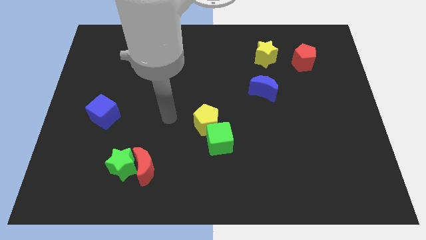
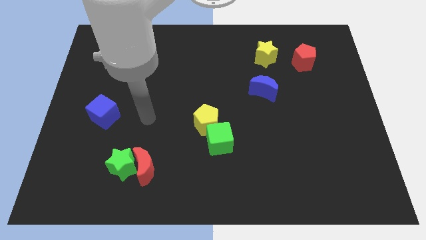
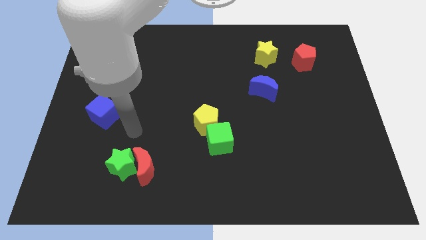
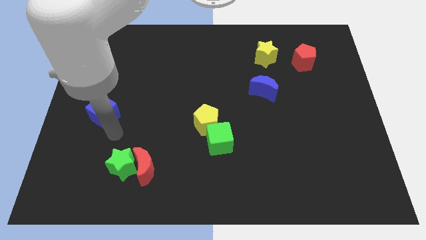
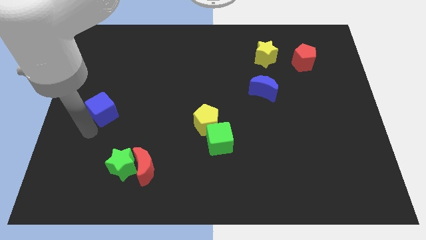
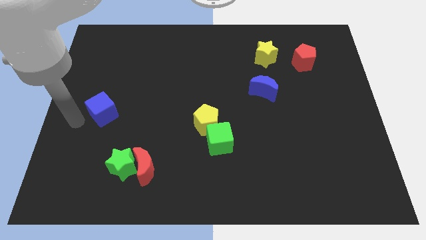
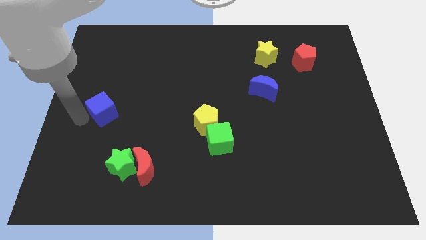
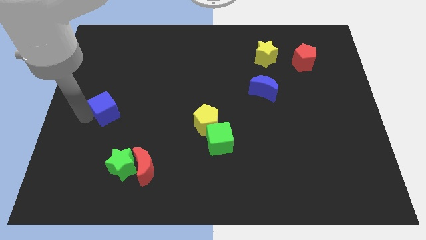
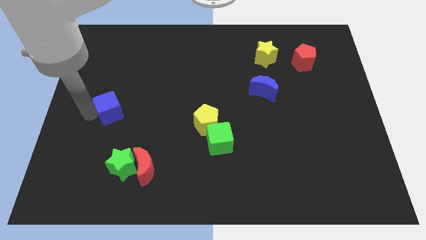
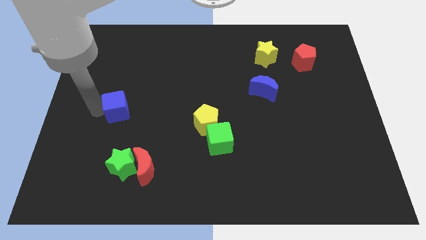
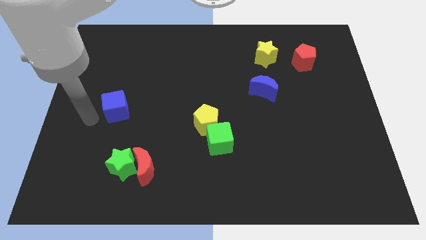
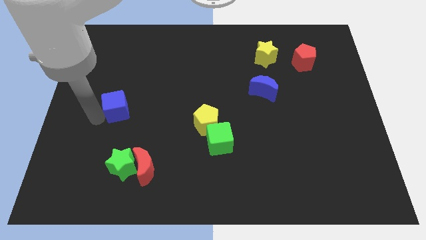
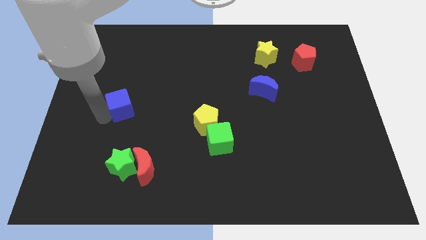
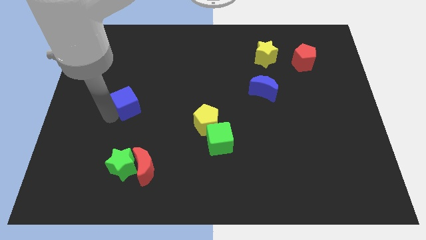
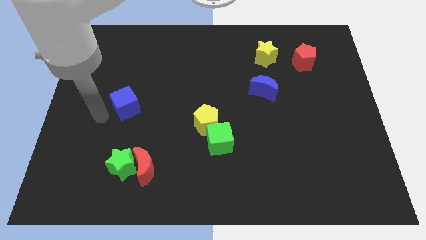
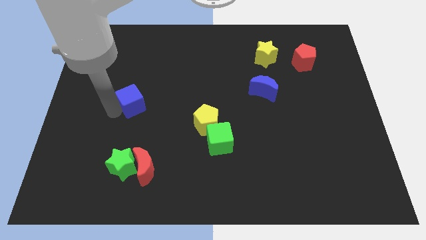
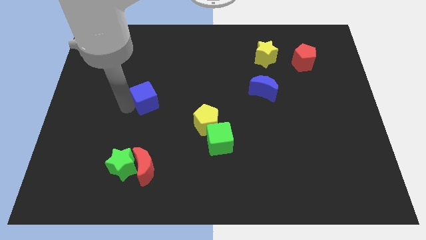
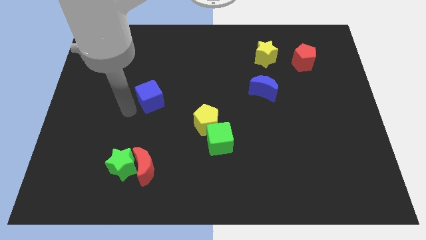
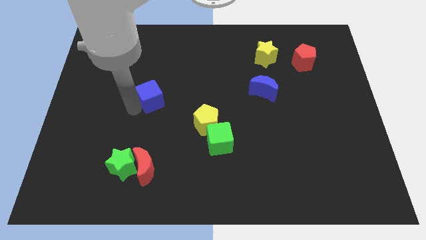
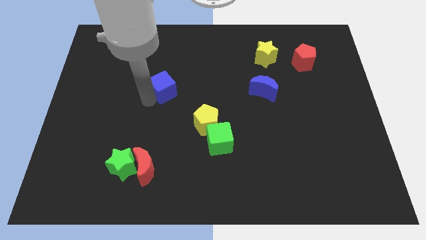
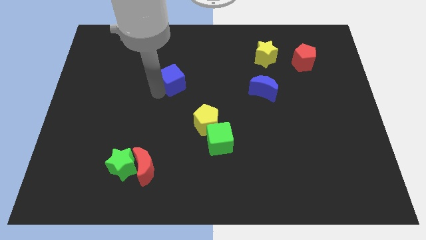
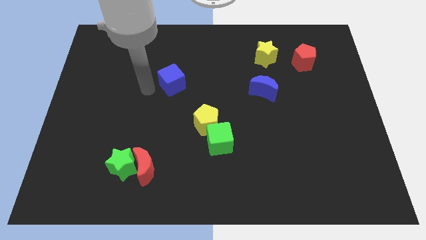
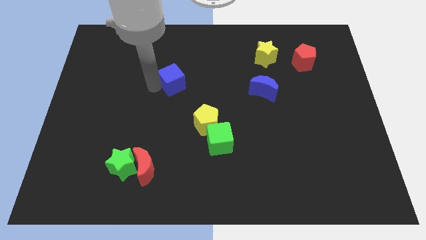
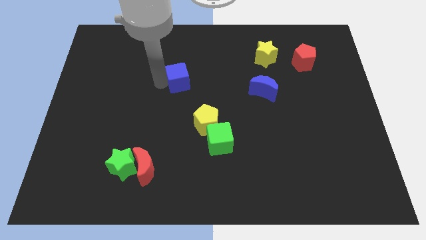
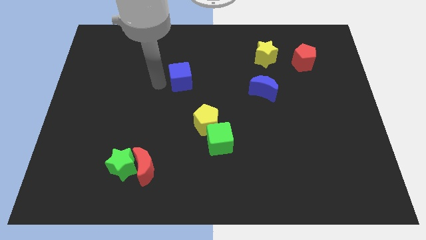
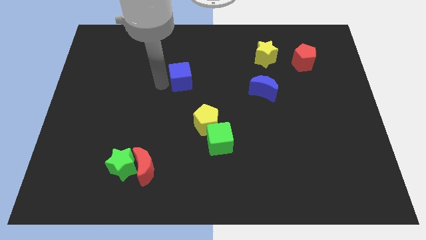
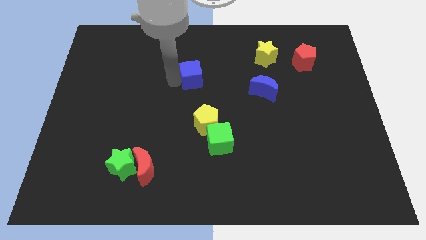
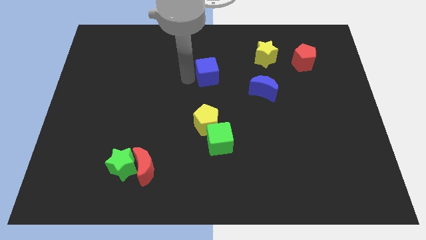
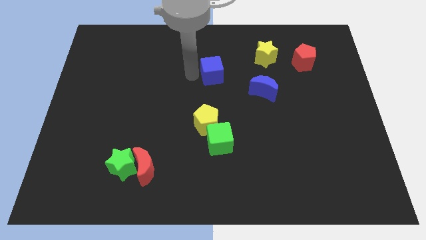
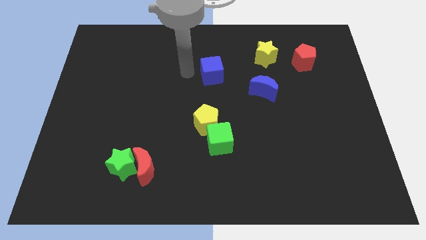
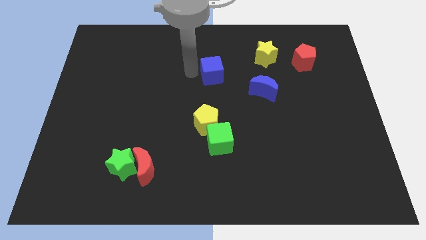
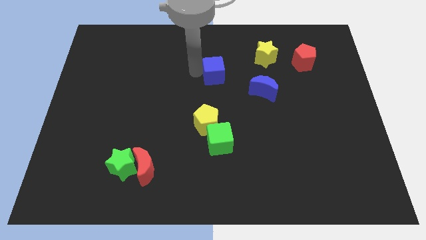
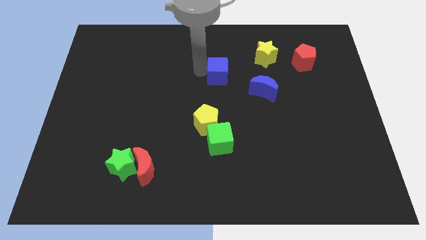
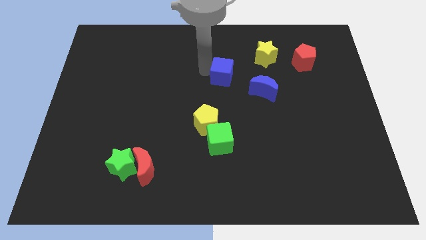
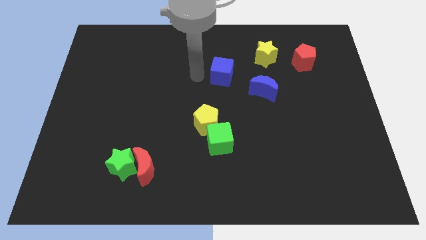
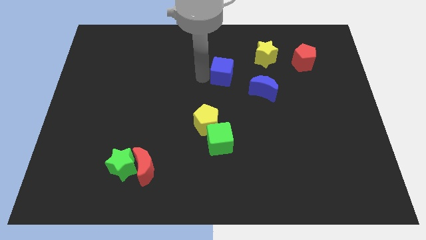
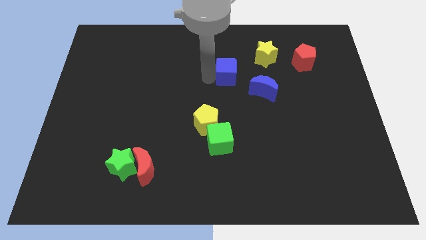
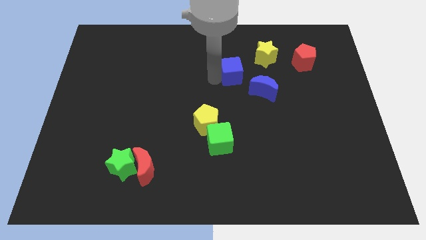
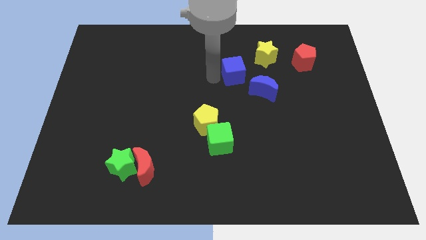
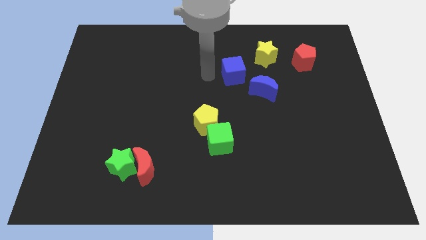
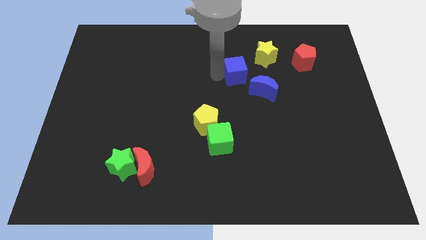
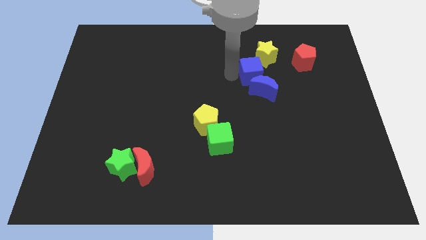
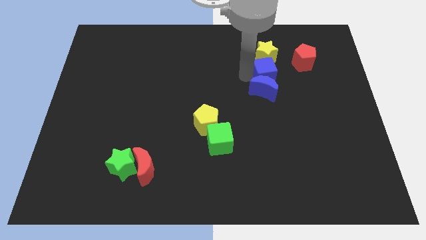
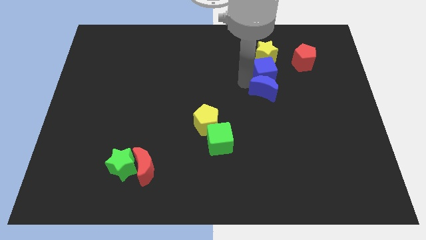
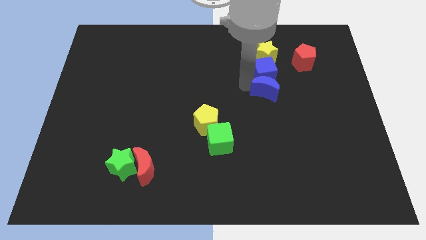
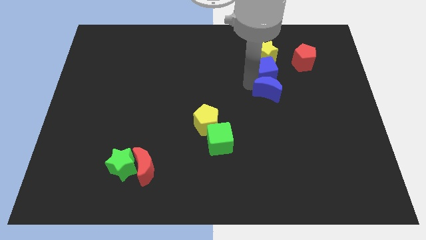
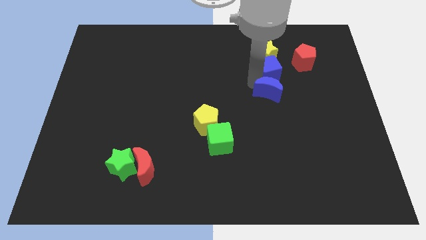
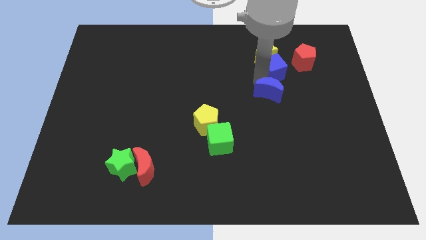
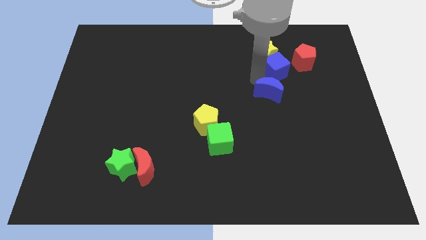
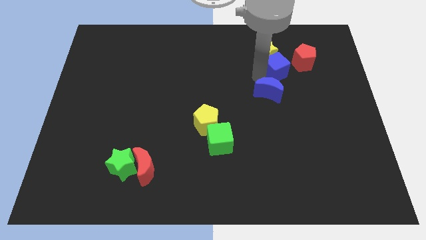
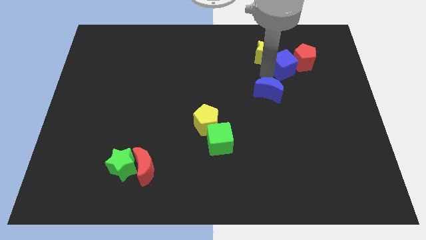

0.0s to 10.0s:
push the blue cube to the red pentagon

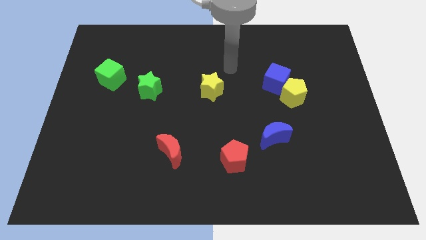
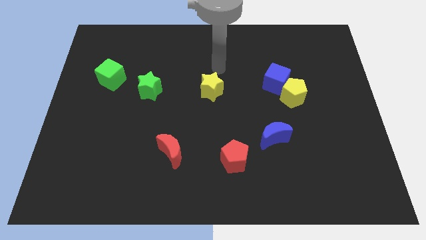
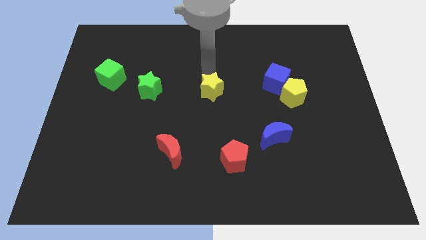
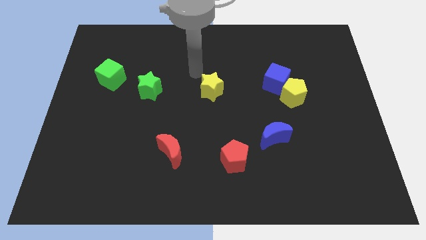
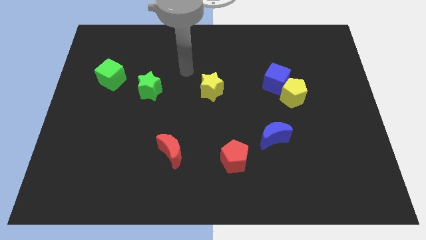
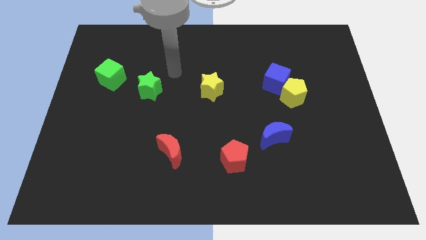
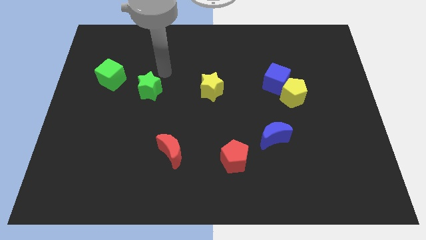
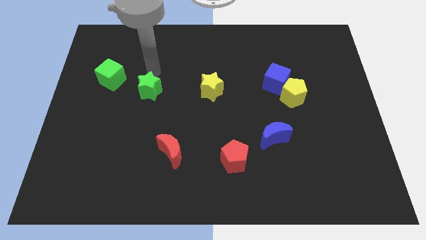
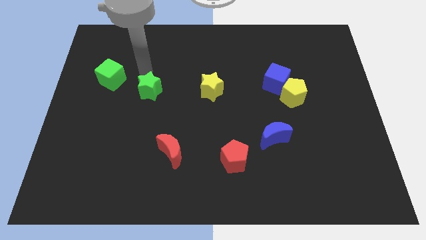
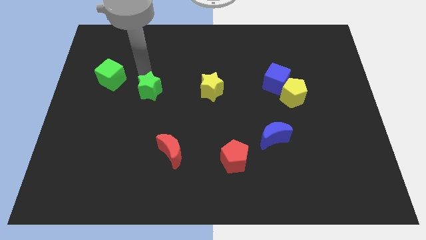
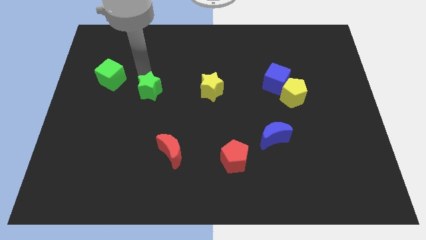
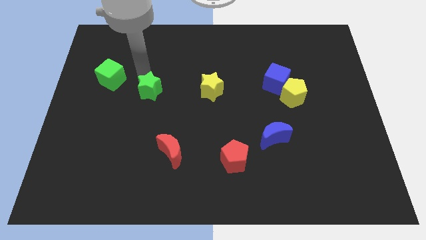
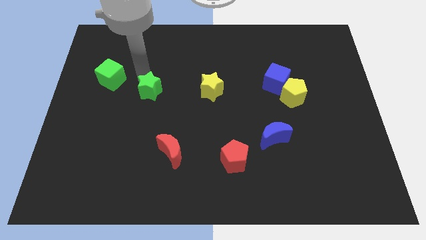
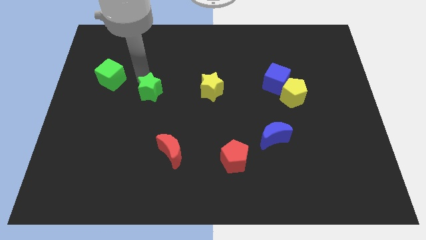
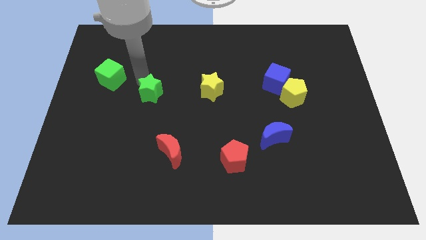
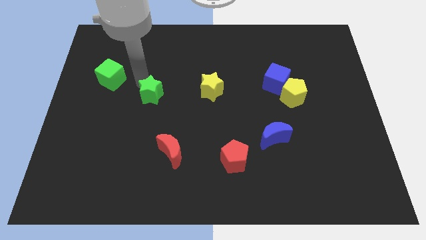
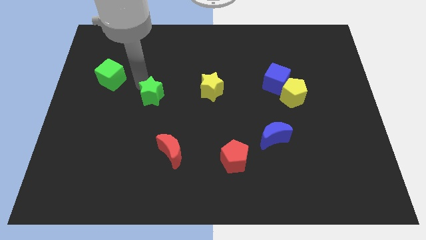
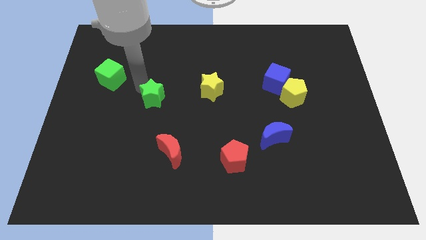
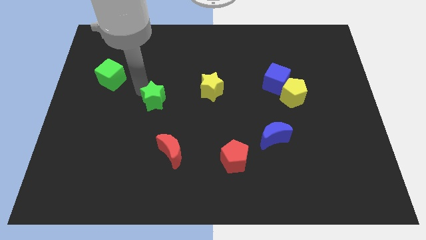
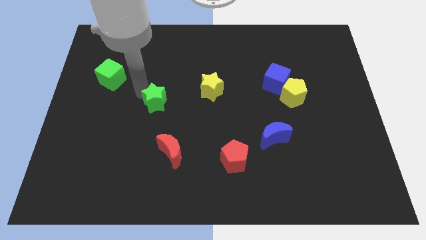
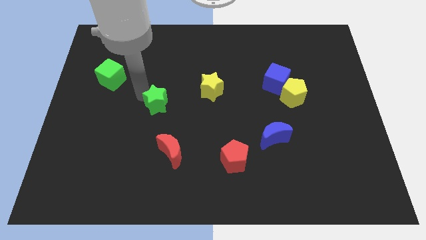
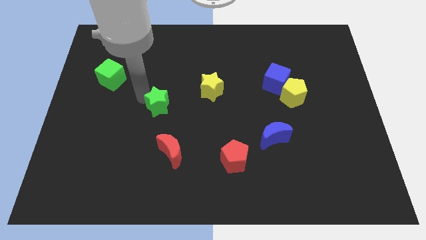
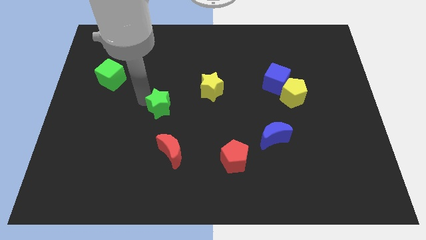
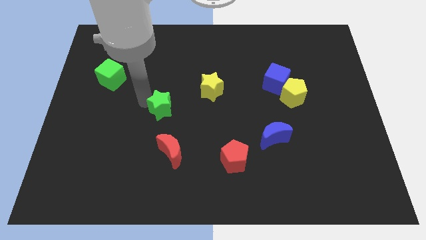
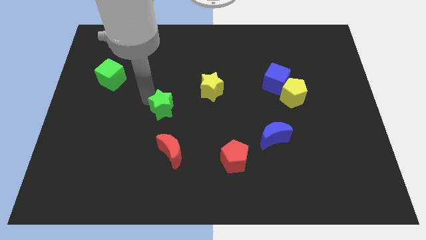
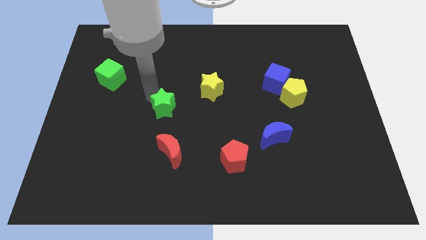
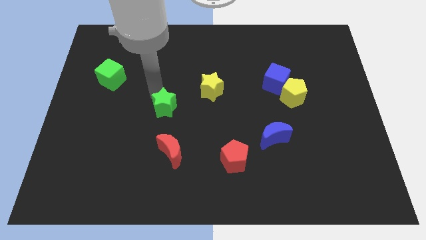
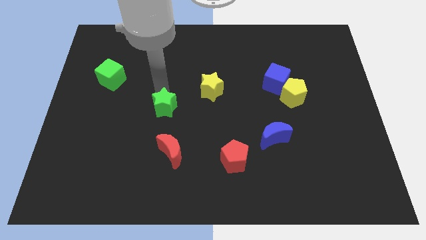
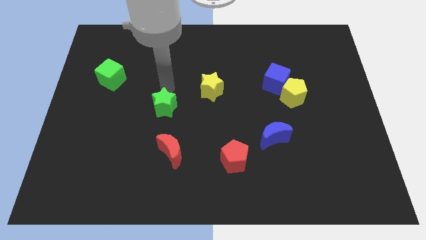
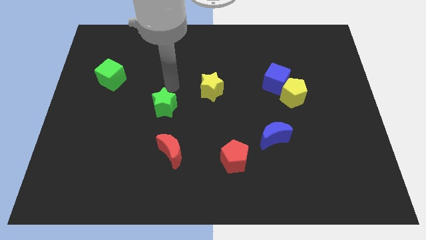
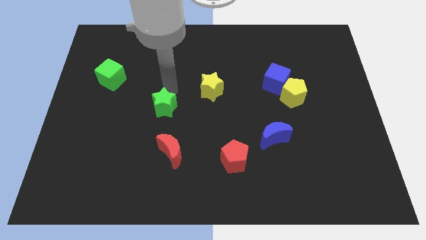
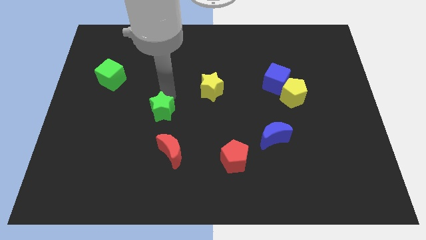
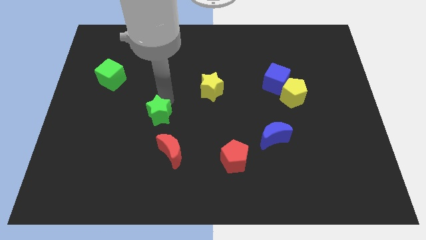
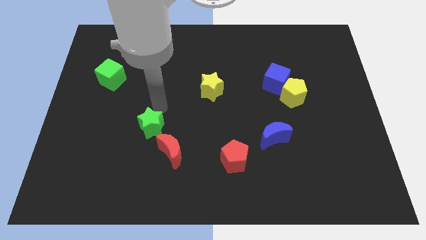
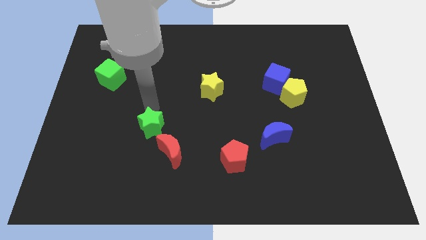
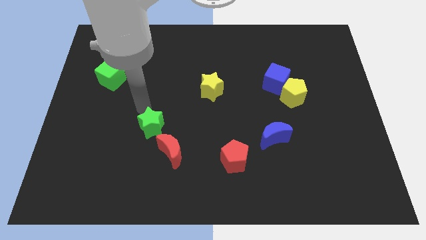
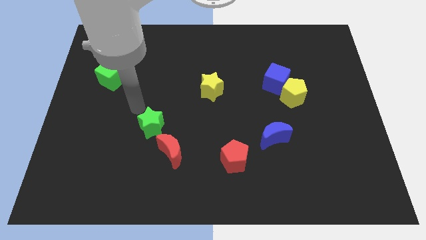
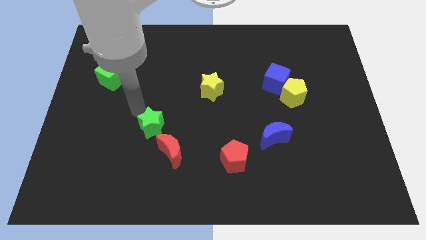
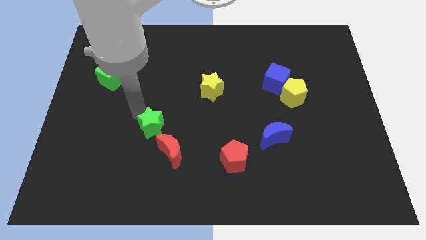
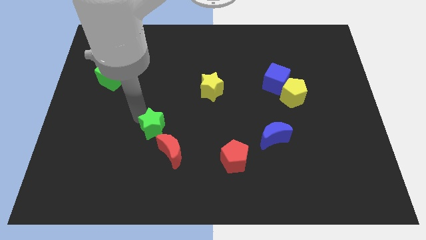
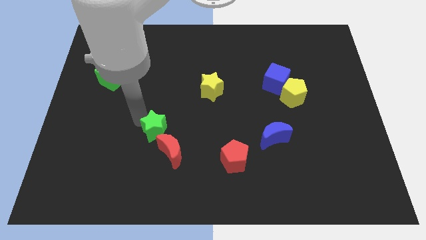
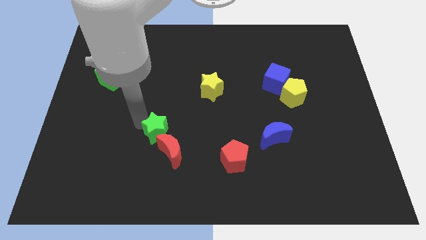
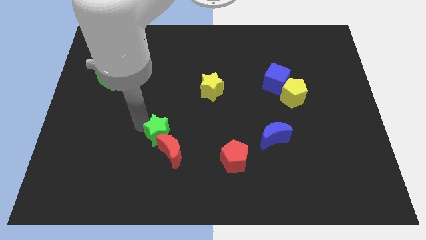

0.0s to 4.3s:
push the green star close to the red moon
